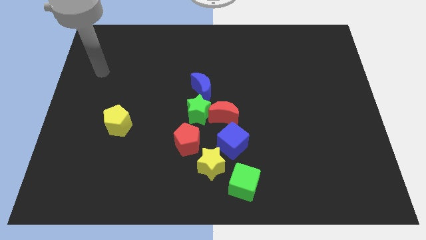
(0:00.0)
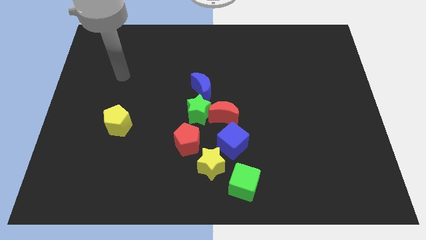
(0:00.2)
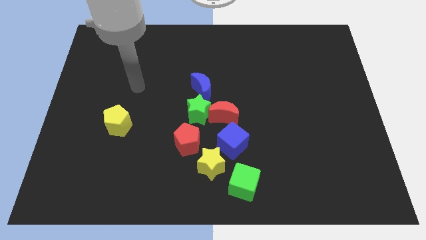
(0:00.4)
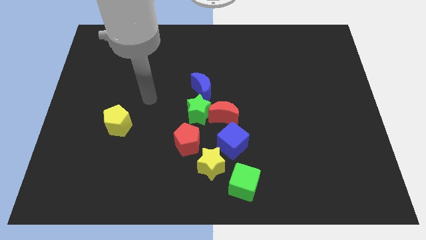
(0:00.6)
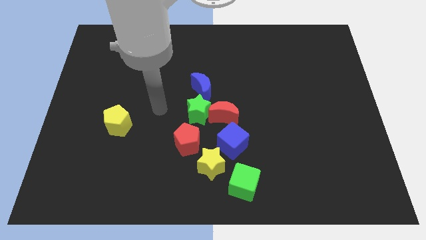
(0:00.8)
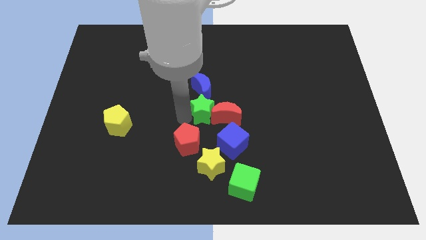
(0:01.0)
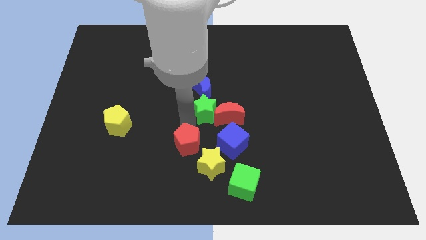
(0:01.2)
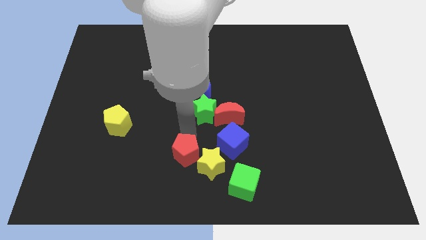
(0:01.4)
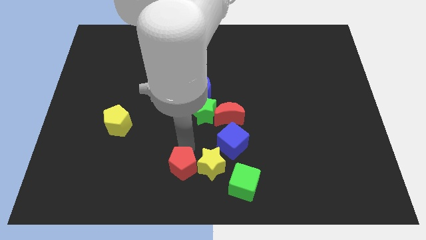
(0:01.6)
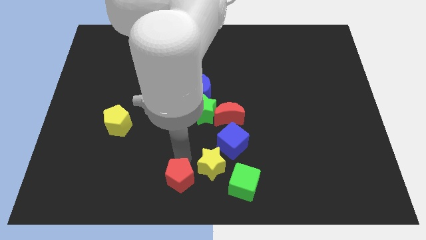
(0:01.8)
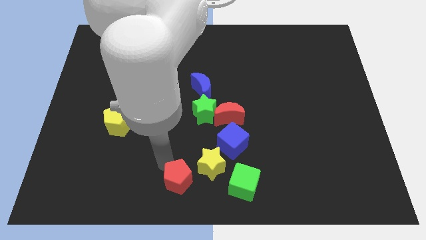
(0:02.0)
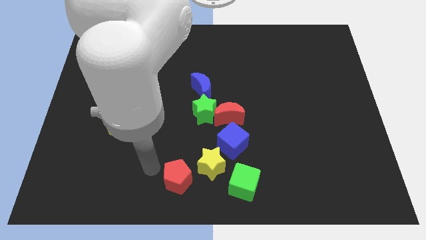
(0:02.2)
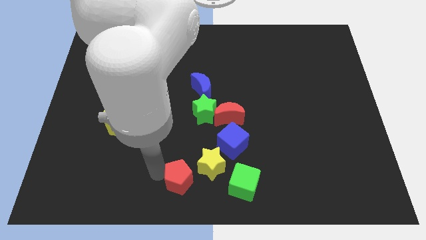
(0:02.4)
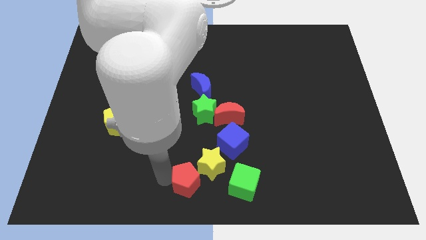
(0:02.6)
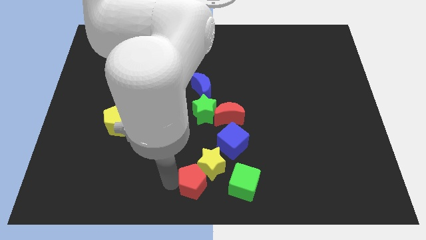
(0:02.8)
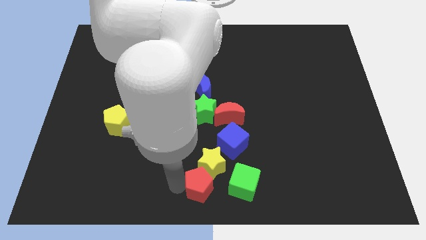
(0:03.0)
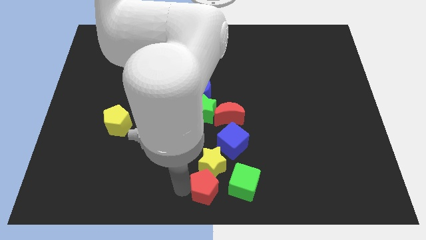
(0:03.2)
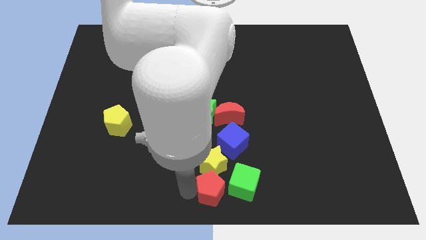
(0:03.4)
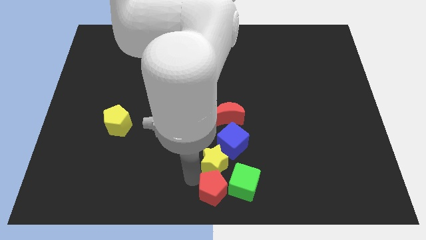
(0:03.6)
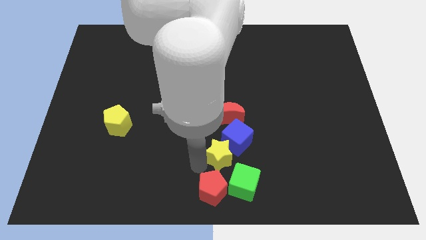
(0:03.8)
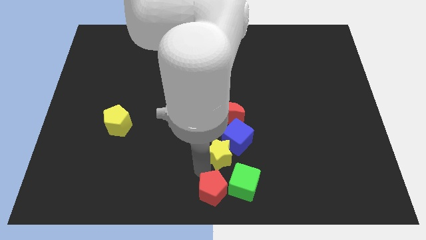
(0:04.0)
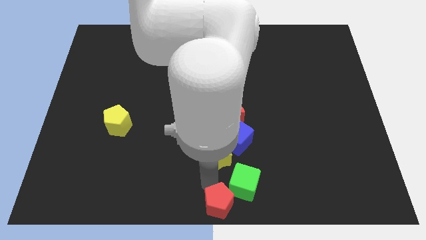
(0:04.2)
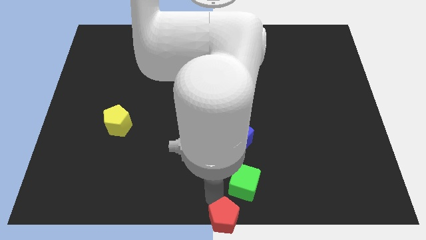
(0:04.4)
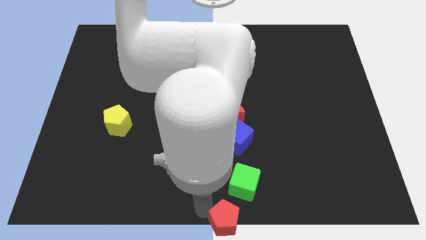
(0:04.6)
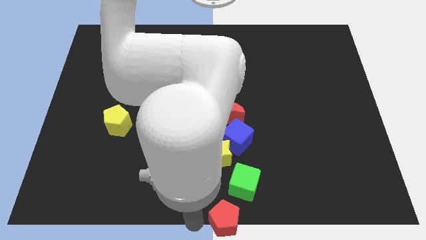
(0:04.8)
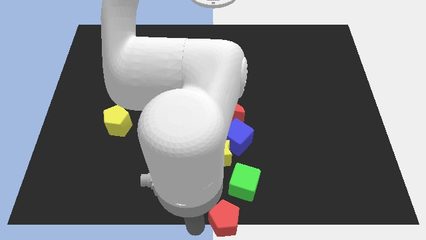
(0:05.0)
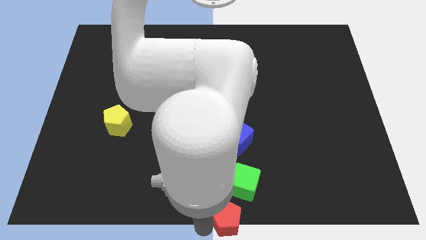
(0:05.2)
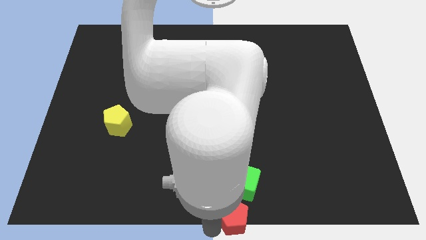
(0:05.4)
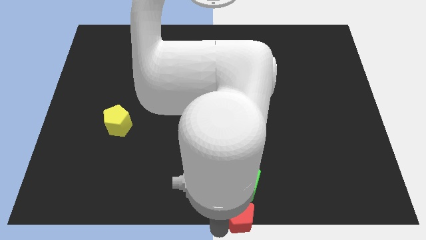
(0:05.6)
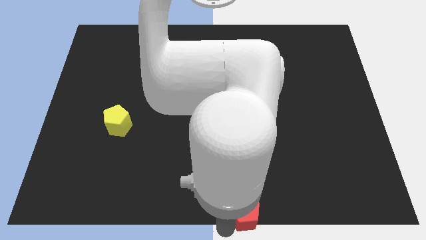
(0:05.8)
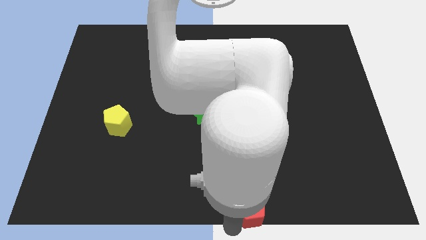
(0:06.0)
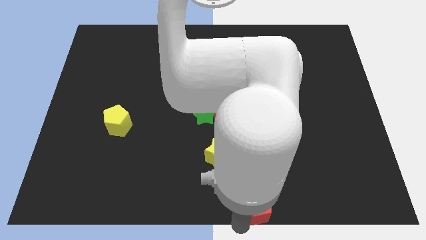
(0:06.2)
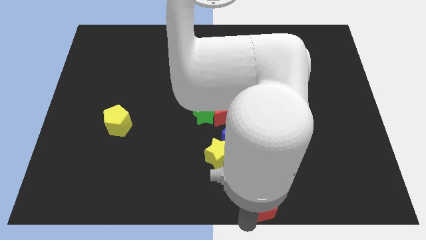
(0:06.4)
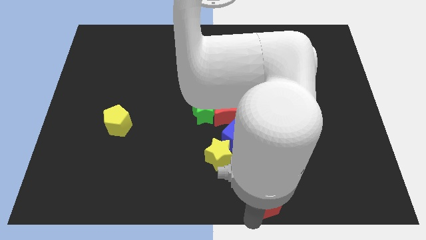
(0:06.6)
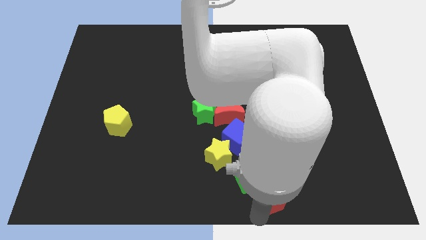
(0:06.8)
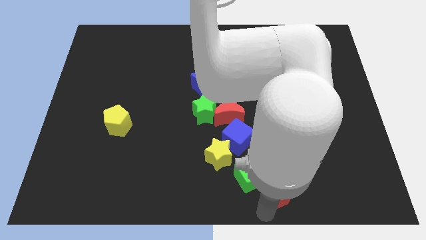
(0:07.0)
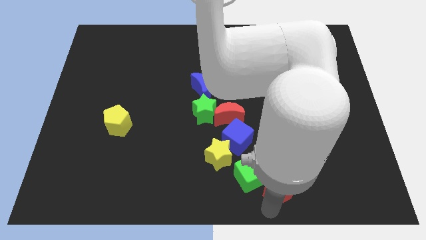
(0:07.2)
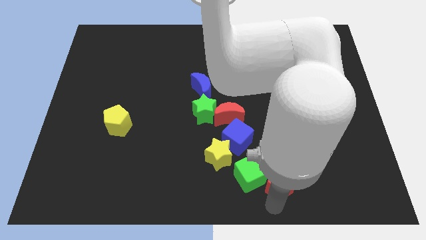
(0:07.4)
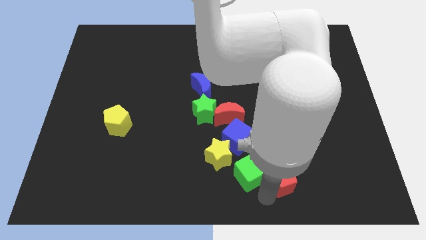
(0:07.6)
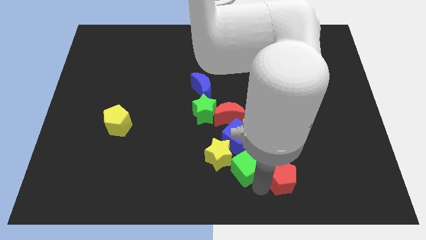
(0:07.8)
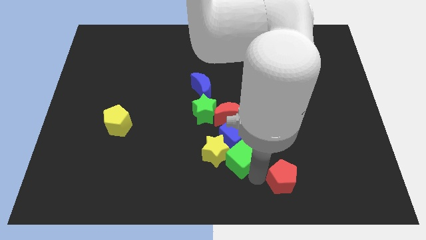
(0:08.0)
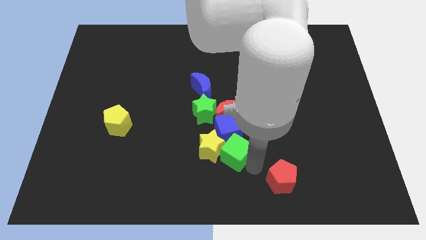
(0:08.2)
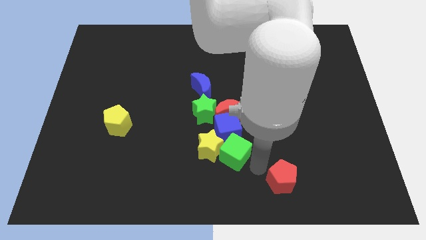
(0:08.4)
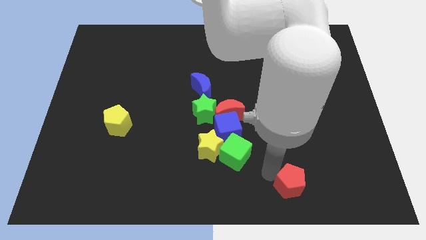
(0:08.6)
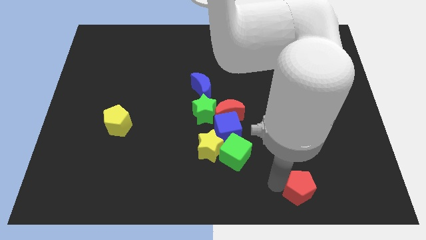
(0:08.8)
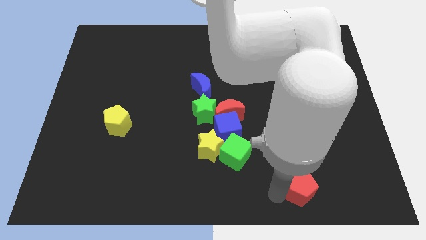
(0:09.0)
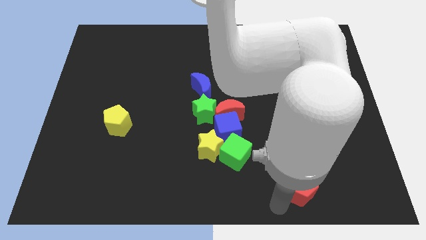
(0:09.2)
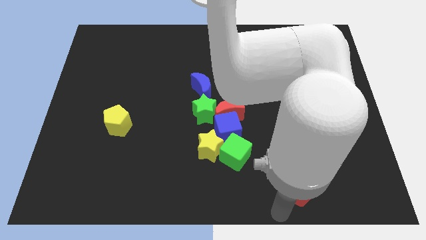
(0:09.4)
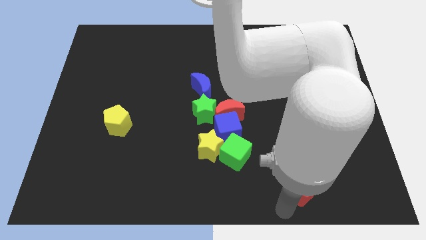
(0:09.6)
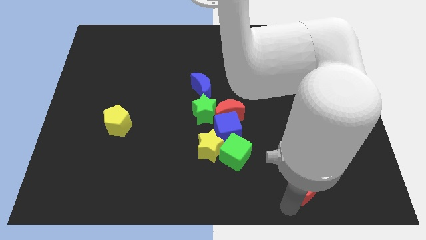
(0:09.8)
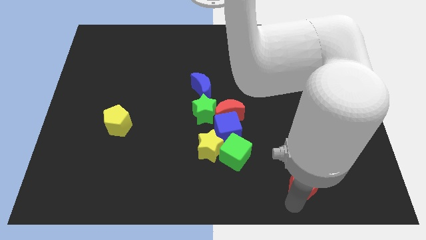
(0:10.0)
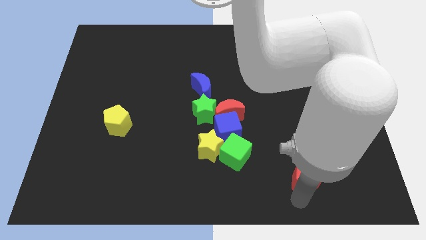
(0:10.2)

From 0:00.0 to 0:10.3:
push the red pentagon right

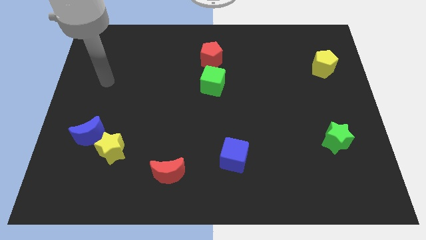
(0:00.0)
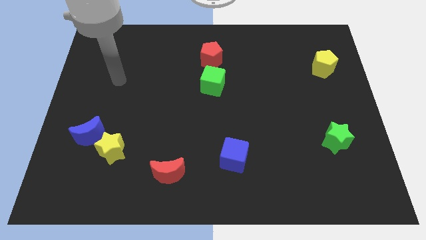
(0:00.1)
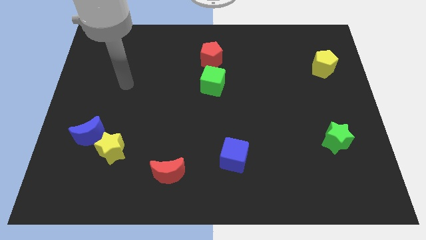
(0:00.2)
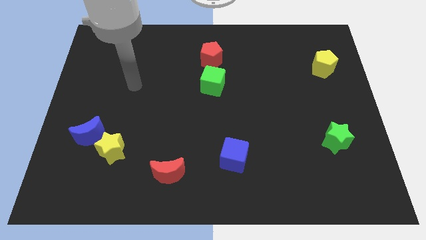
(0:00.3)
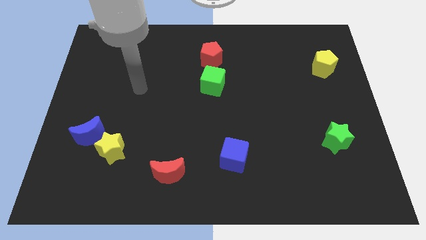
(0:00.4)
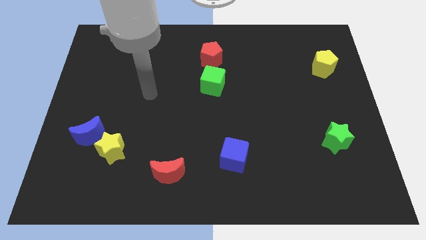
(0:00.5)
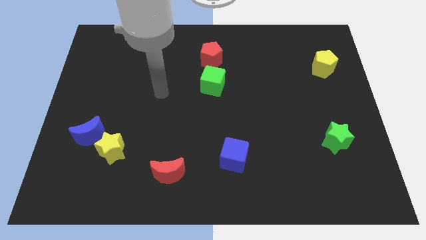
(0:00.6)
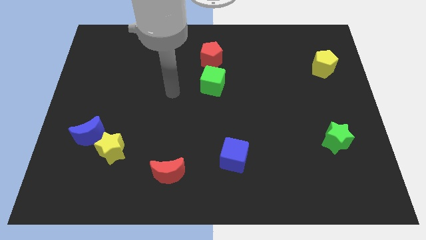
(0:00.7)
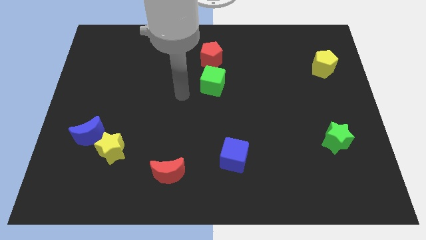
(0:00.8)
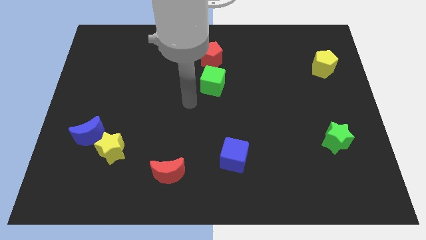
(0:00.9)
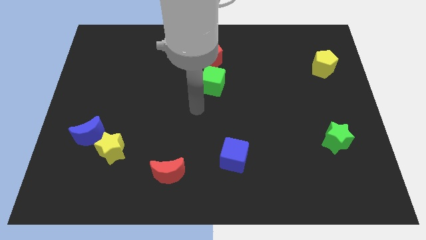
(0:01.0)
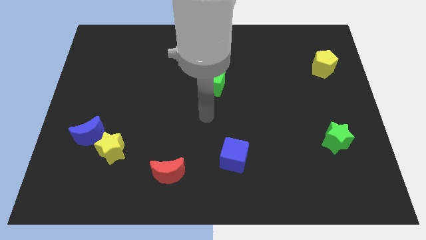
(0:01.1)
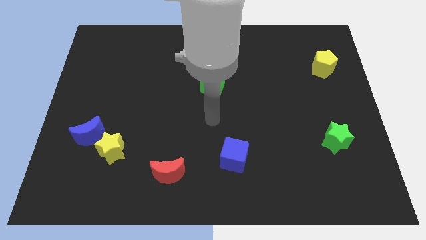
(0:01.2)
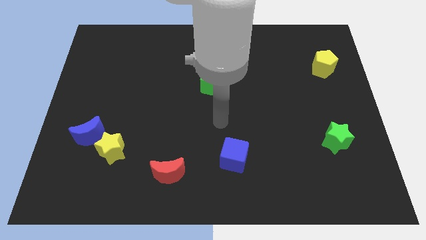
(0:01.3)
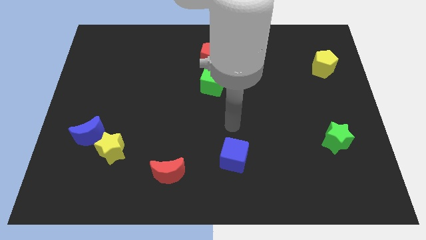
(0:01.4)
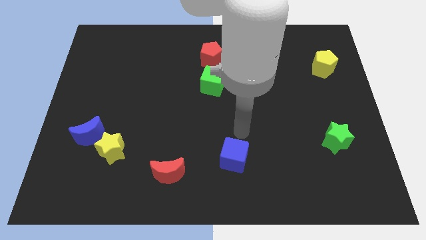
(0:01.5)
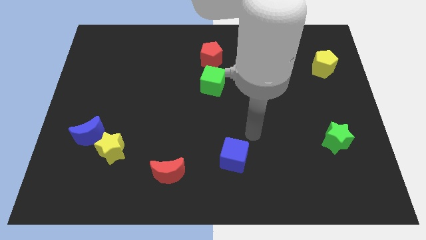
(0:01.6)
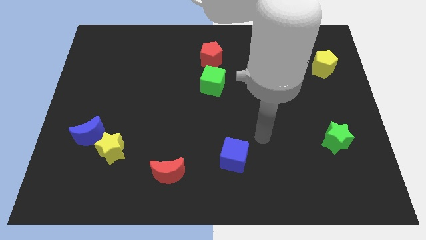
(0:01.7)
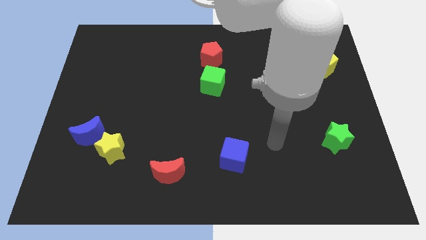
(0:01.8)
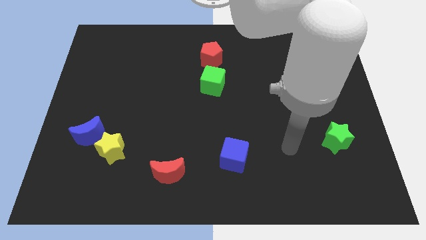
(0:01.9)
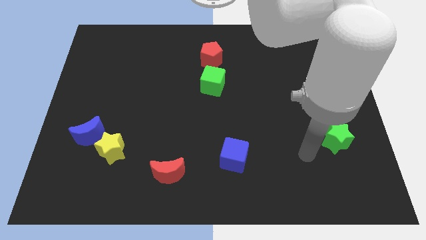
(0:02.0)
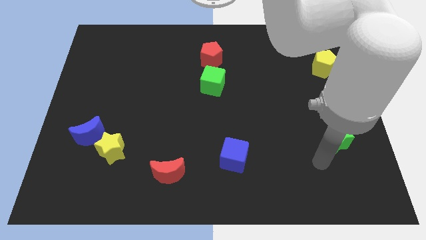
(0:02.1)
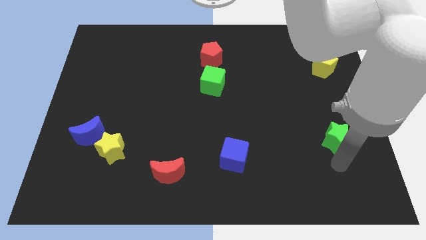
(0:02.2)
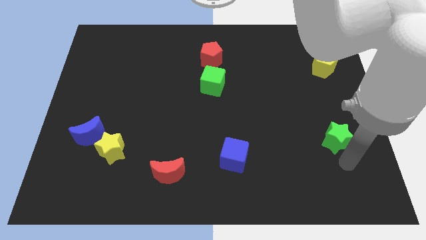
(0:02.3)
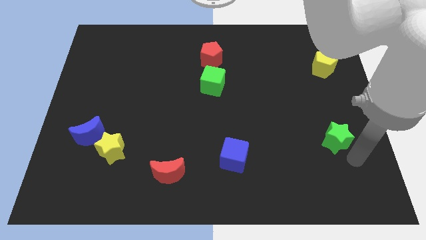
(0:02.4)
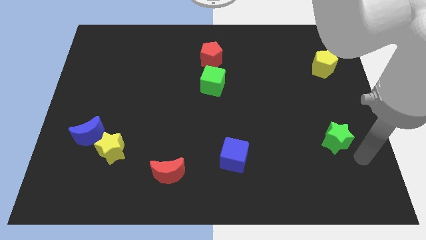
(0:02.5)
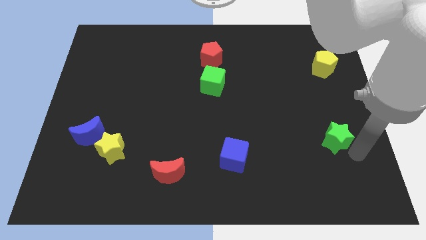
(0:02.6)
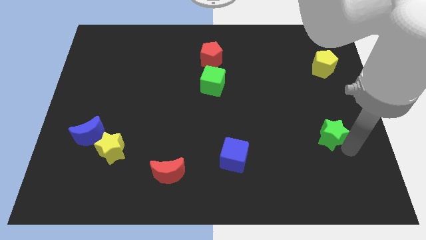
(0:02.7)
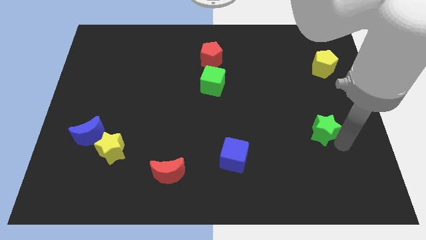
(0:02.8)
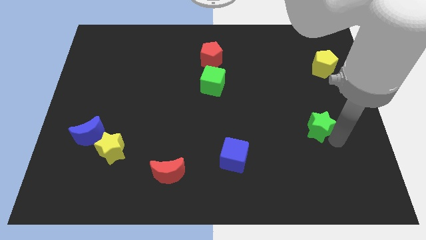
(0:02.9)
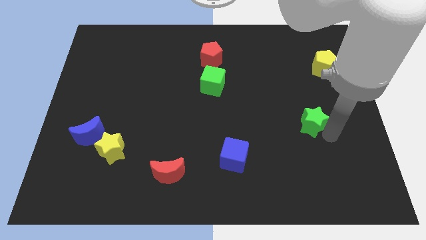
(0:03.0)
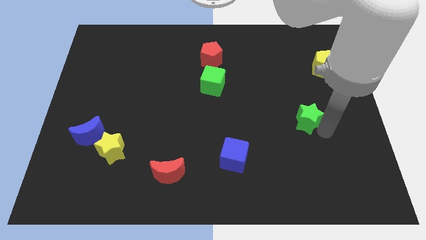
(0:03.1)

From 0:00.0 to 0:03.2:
slightly move the green star upwards and left

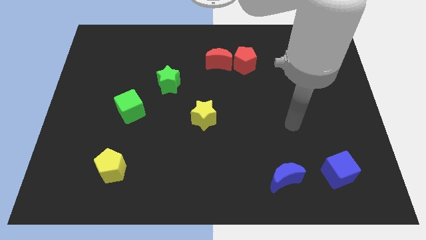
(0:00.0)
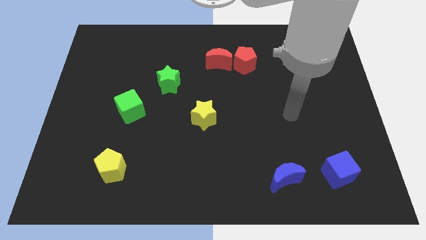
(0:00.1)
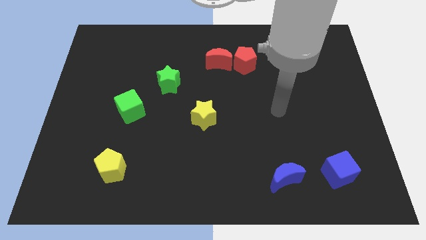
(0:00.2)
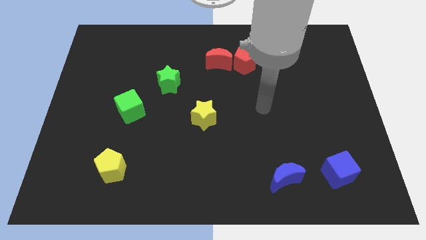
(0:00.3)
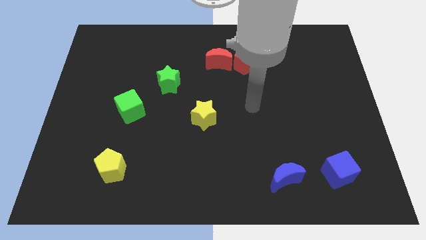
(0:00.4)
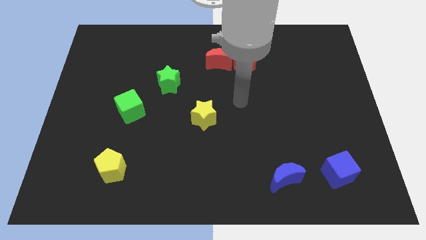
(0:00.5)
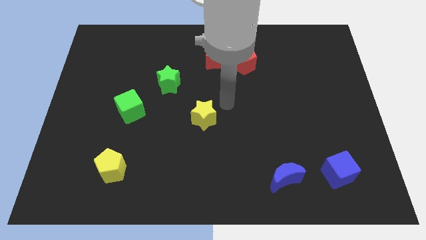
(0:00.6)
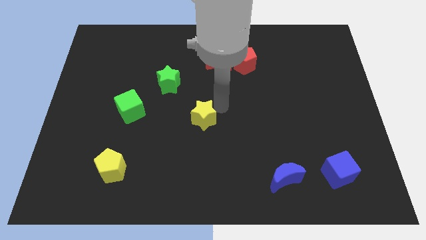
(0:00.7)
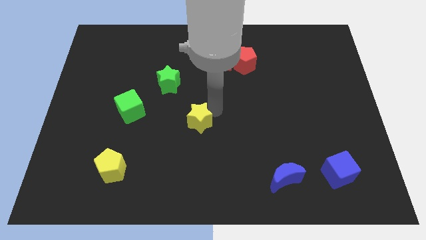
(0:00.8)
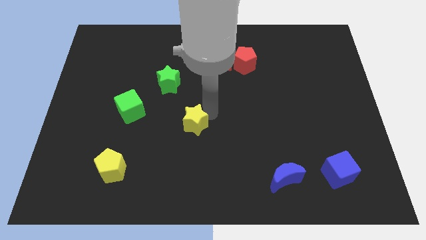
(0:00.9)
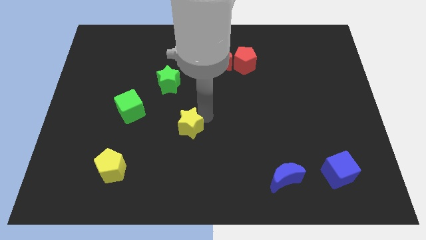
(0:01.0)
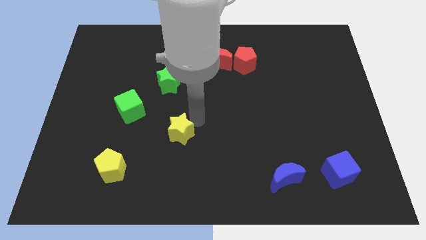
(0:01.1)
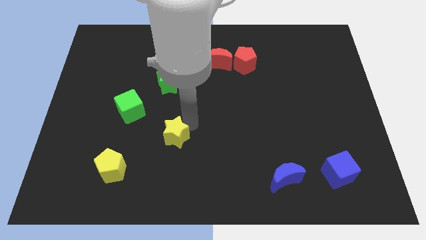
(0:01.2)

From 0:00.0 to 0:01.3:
push the yellow star slightly downwards and to the left diagonally
